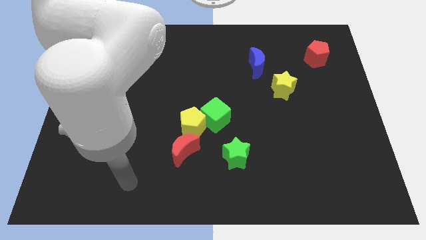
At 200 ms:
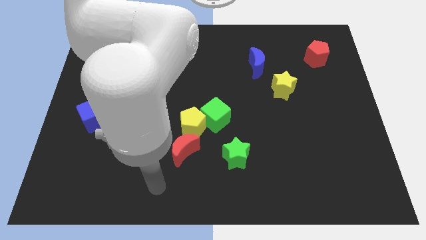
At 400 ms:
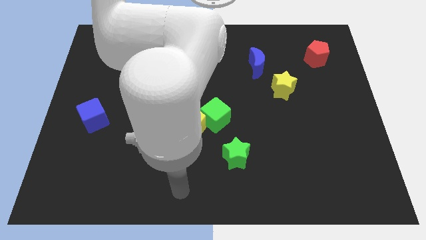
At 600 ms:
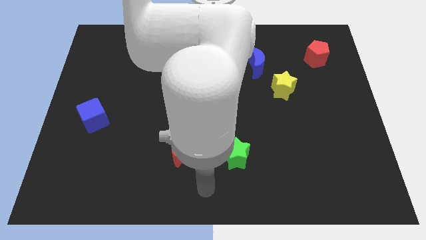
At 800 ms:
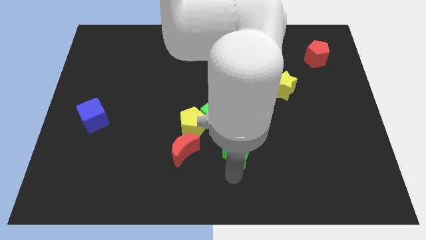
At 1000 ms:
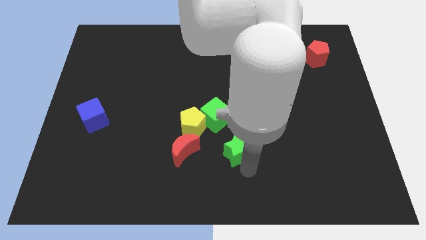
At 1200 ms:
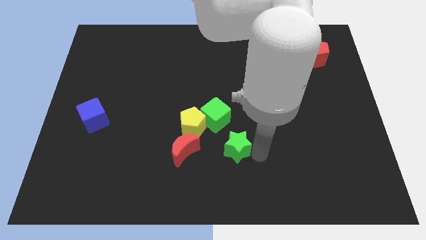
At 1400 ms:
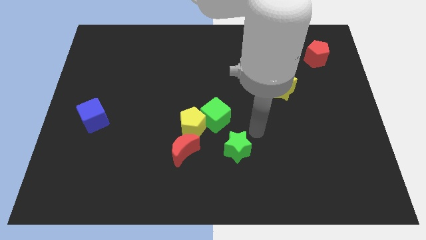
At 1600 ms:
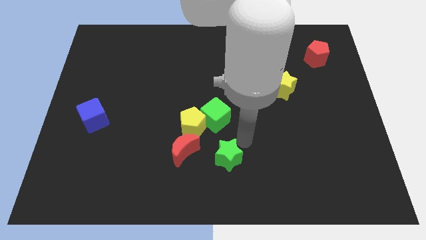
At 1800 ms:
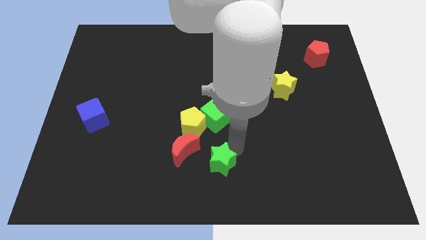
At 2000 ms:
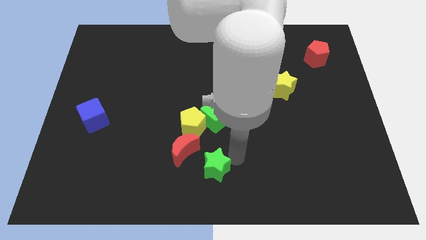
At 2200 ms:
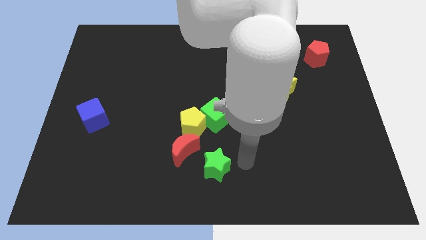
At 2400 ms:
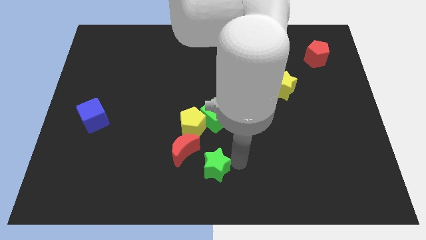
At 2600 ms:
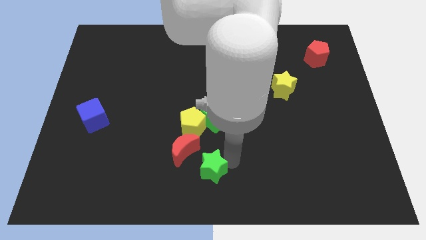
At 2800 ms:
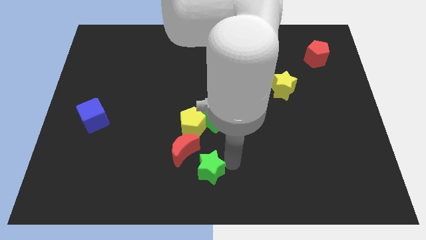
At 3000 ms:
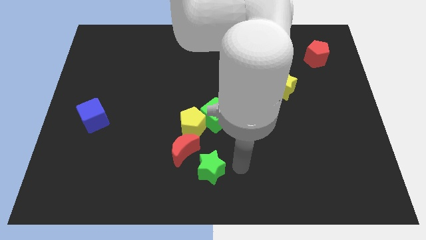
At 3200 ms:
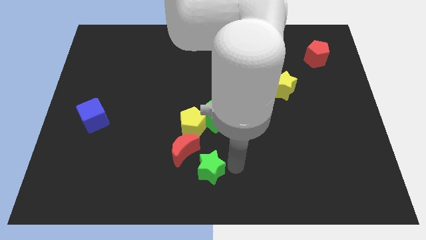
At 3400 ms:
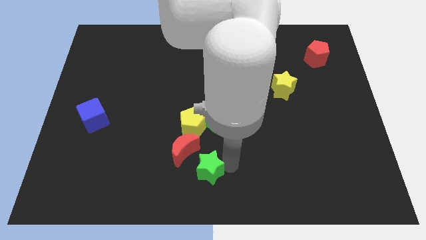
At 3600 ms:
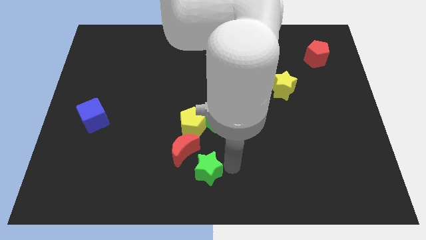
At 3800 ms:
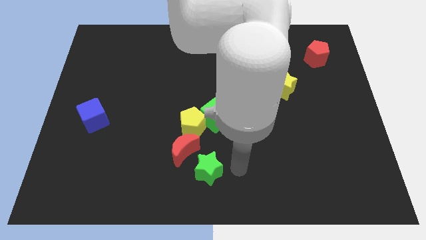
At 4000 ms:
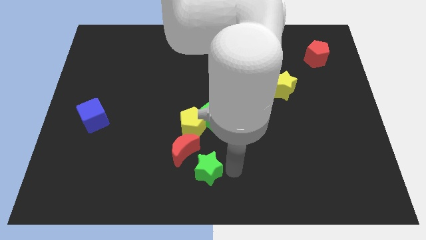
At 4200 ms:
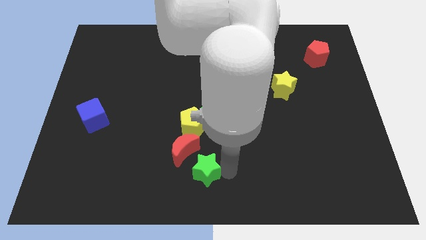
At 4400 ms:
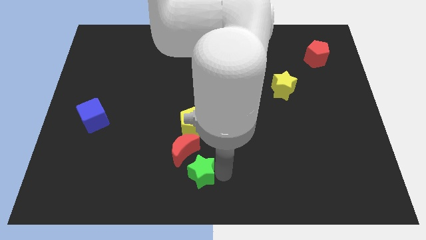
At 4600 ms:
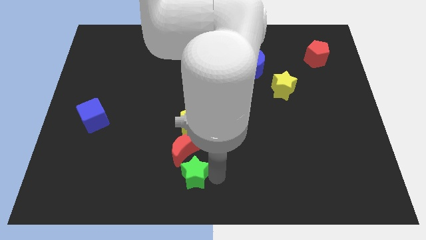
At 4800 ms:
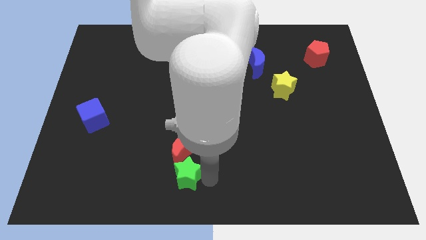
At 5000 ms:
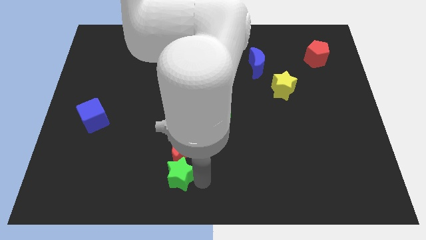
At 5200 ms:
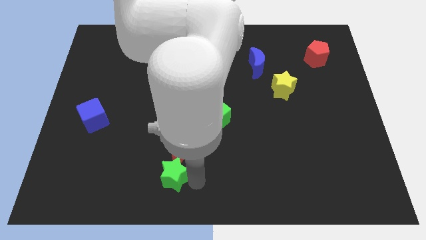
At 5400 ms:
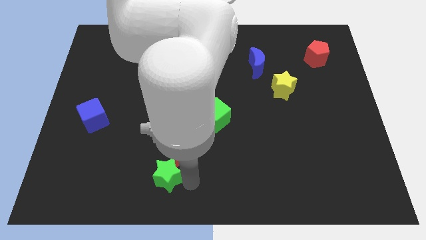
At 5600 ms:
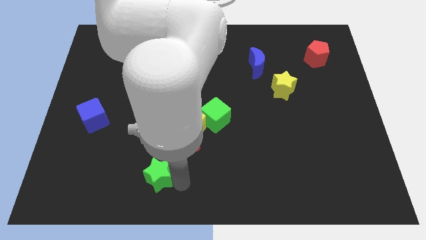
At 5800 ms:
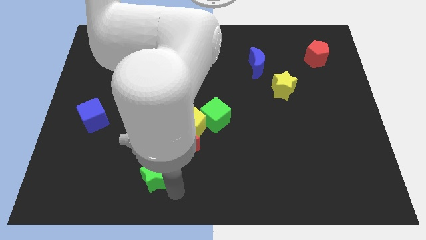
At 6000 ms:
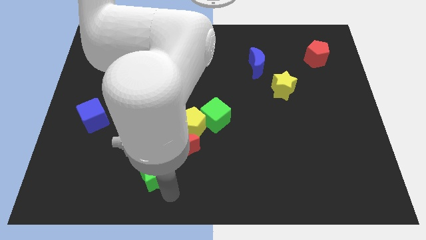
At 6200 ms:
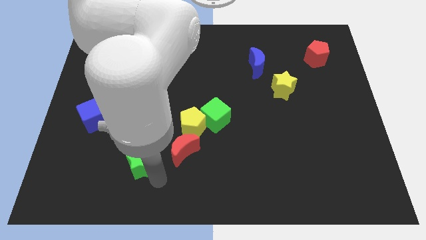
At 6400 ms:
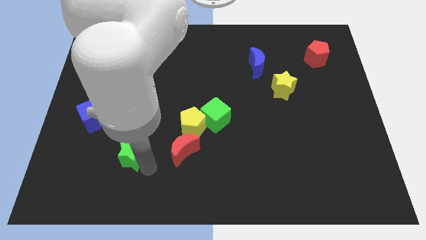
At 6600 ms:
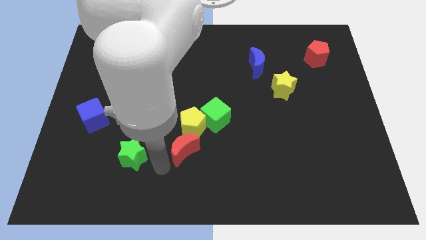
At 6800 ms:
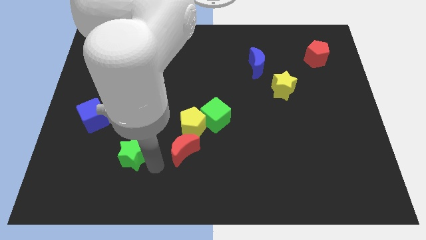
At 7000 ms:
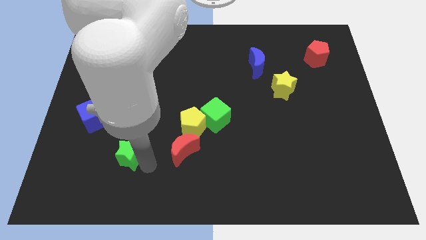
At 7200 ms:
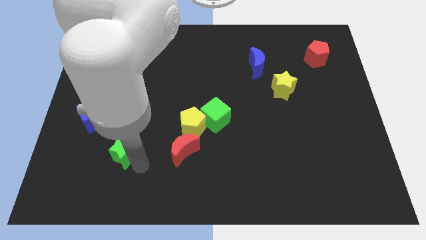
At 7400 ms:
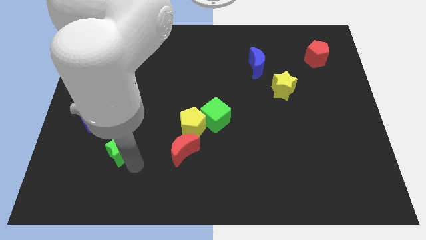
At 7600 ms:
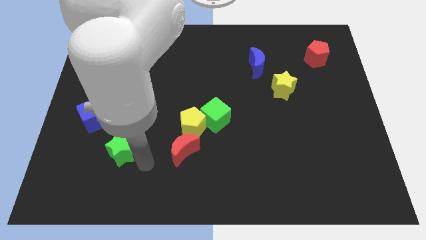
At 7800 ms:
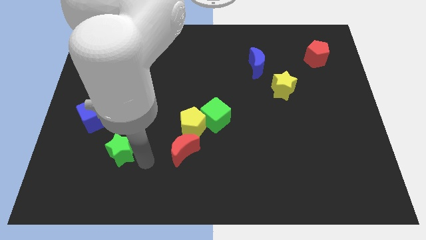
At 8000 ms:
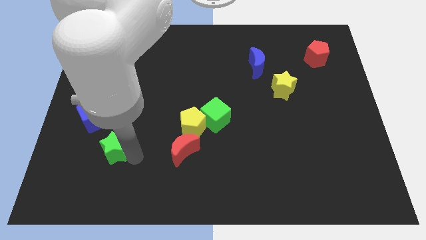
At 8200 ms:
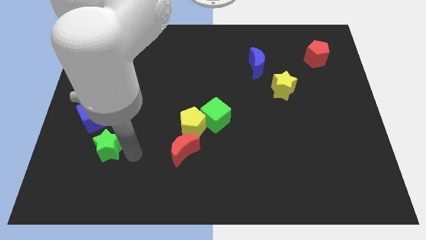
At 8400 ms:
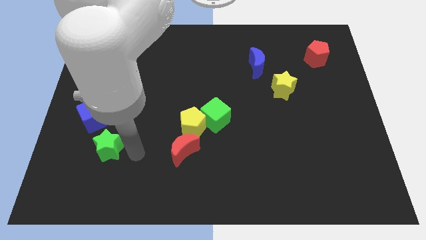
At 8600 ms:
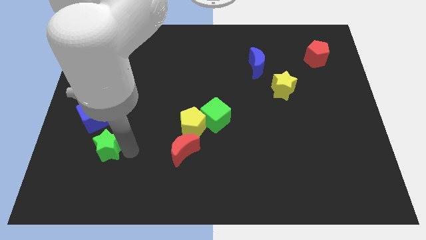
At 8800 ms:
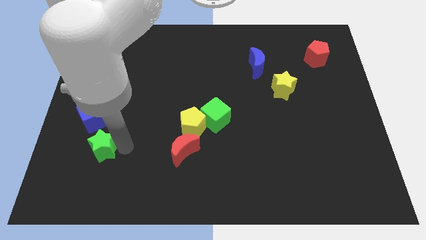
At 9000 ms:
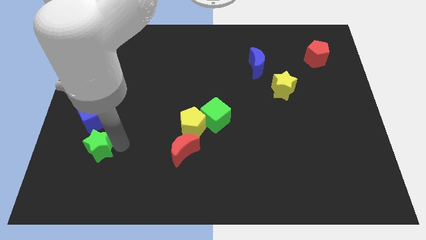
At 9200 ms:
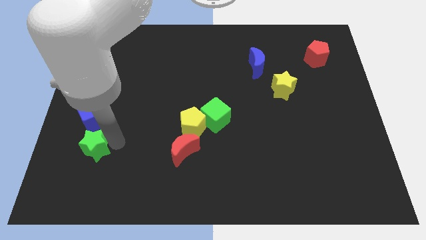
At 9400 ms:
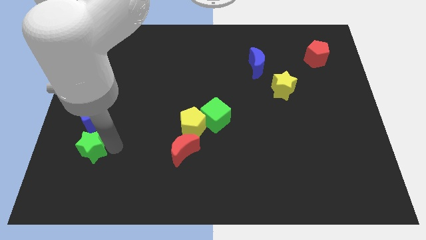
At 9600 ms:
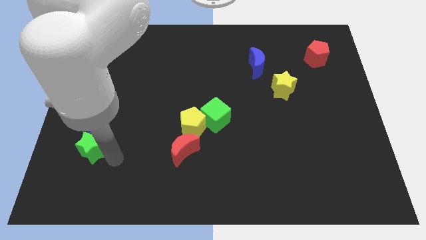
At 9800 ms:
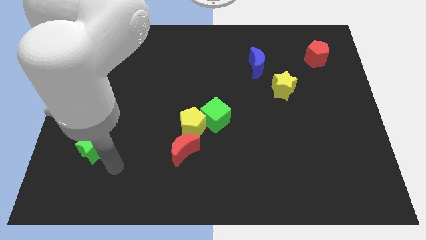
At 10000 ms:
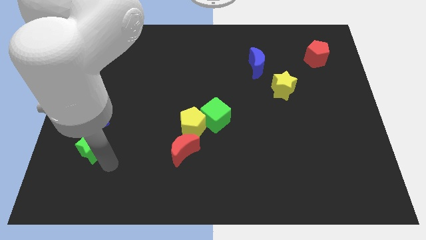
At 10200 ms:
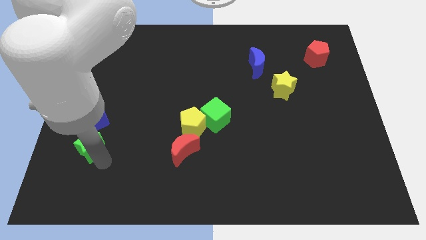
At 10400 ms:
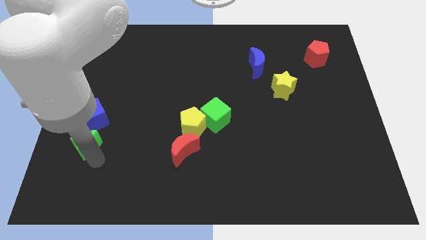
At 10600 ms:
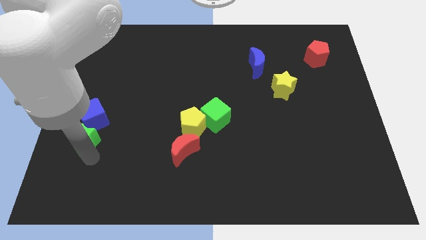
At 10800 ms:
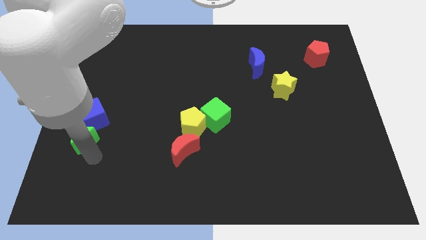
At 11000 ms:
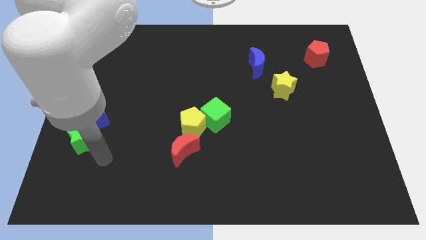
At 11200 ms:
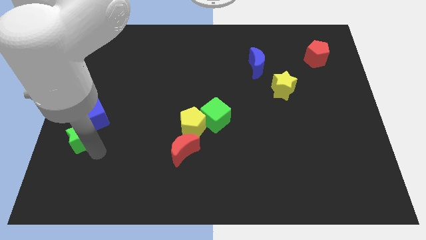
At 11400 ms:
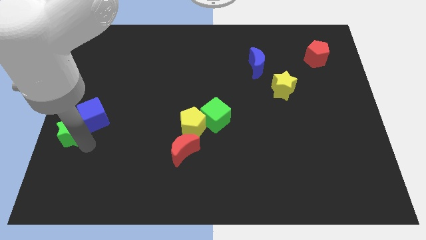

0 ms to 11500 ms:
push the green star to the center left
